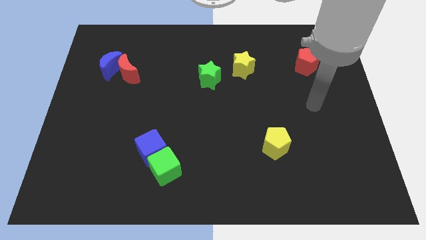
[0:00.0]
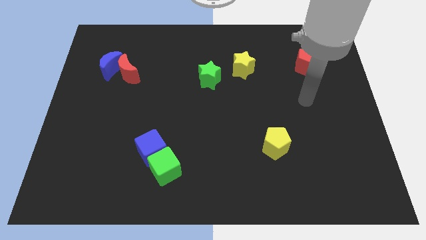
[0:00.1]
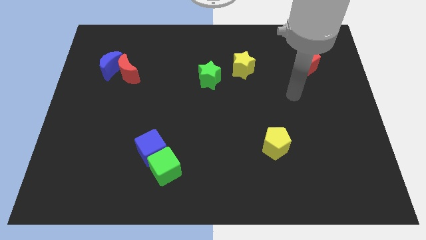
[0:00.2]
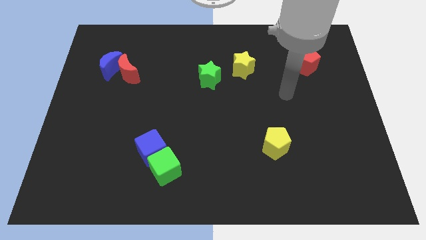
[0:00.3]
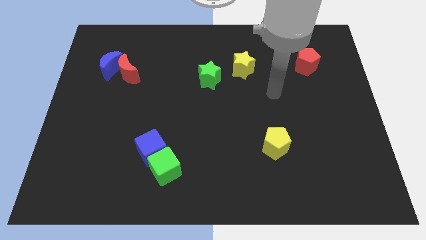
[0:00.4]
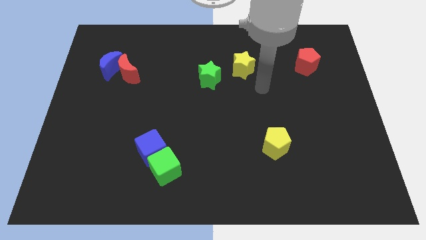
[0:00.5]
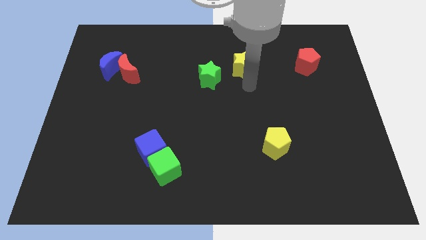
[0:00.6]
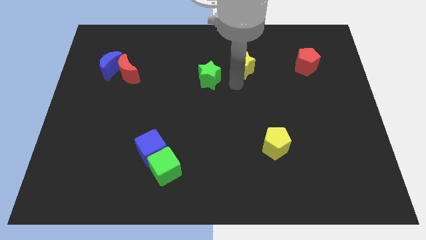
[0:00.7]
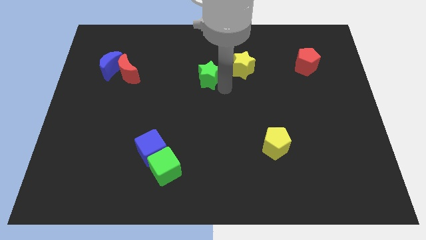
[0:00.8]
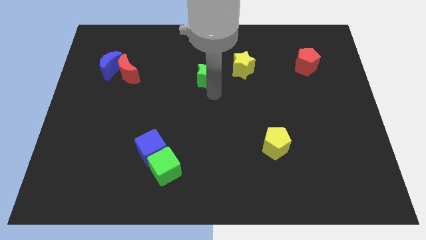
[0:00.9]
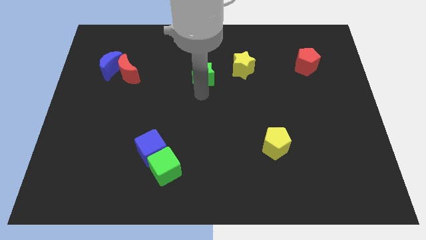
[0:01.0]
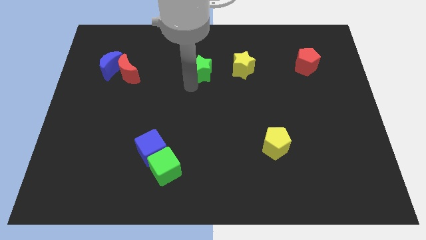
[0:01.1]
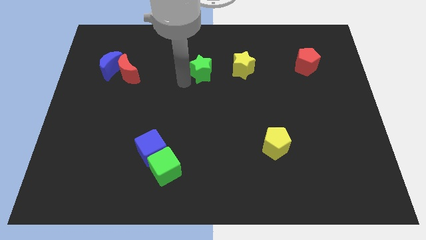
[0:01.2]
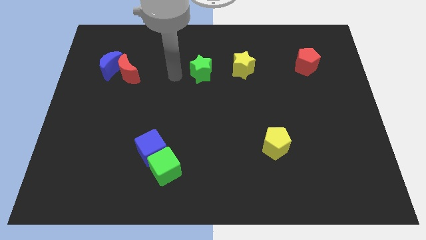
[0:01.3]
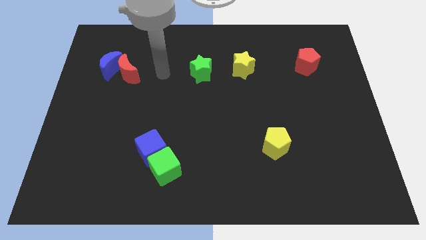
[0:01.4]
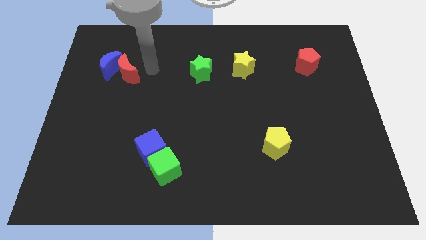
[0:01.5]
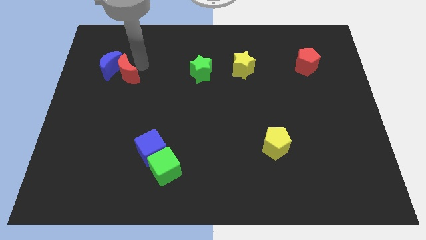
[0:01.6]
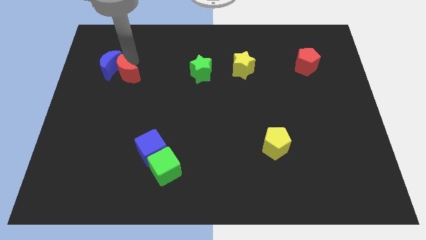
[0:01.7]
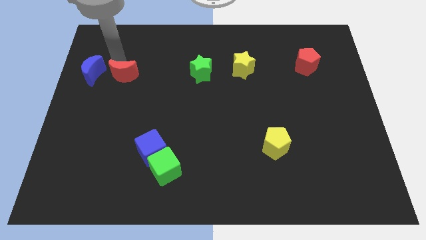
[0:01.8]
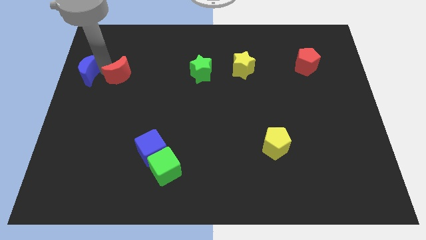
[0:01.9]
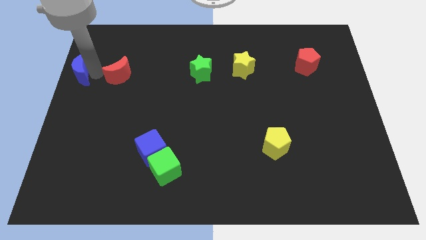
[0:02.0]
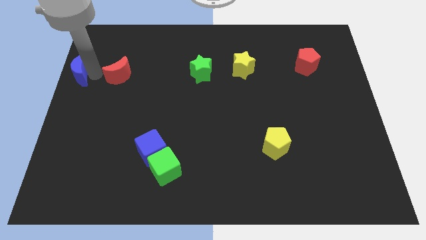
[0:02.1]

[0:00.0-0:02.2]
separate the red moon from the blue moon

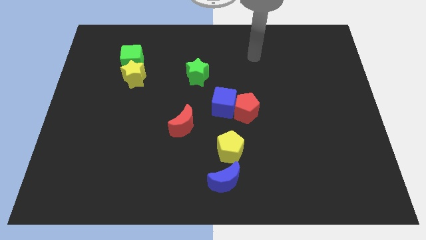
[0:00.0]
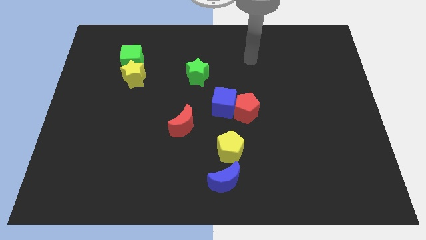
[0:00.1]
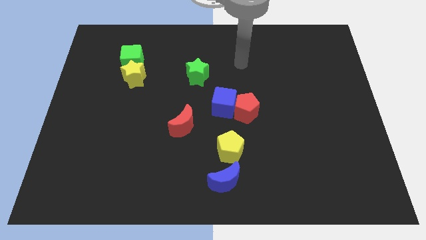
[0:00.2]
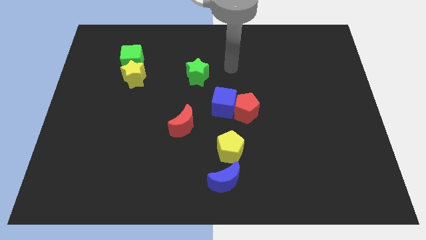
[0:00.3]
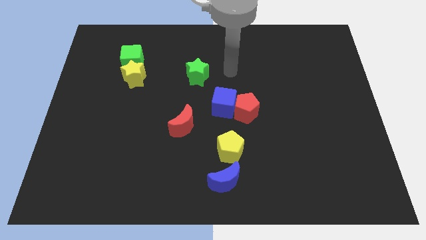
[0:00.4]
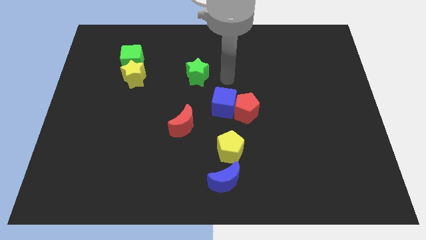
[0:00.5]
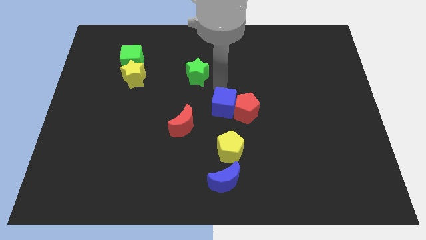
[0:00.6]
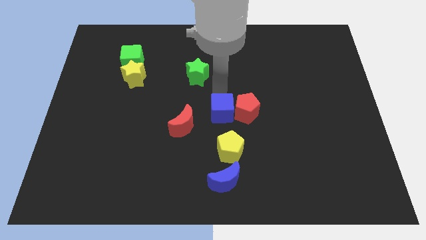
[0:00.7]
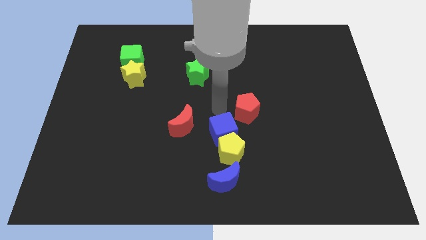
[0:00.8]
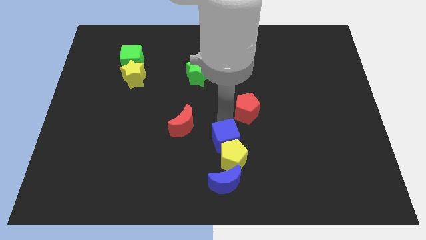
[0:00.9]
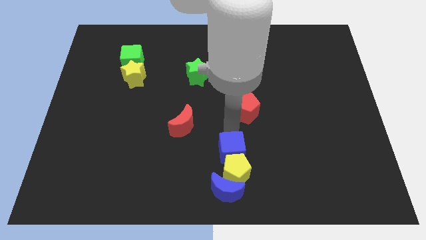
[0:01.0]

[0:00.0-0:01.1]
separate the red pentagon from the blue cube

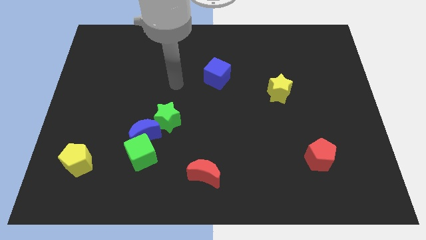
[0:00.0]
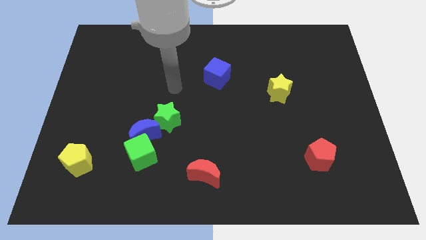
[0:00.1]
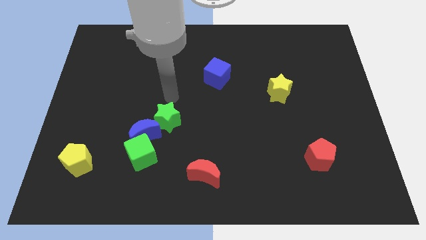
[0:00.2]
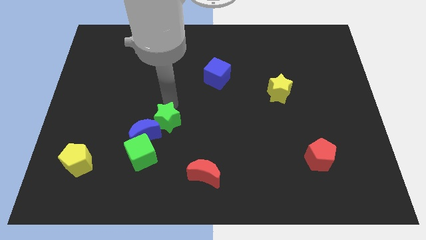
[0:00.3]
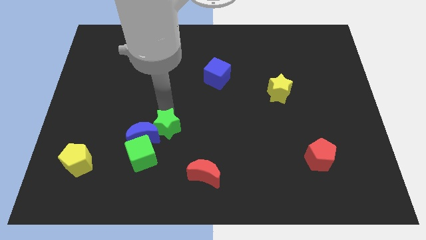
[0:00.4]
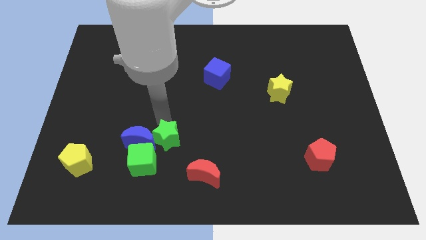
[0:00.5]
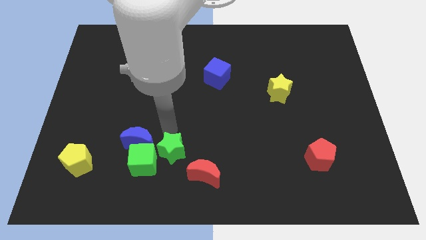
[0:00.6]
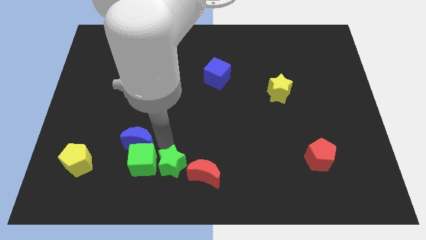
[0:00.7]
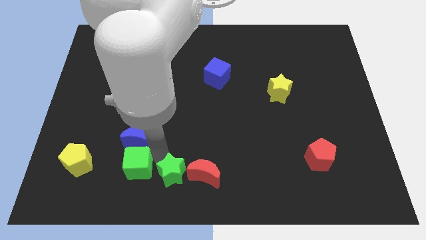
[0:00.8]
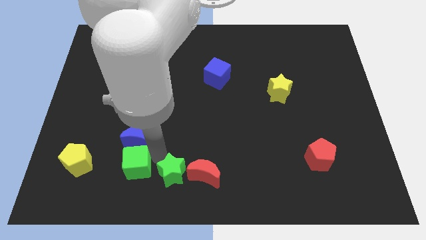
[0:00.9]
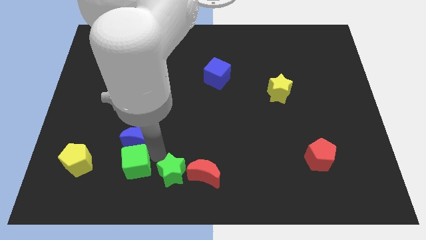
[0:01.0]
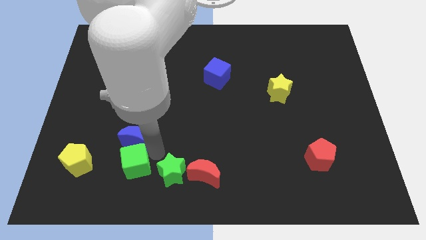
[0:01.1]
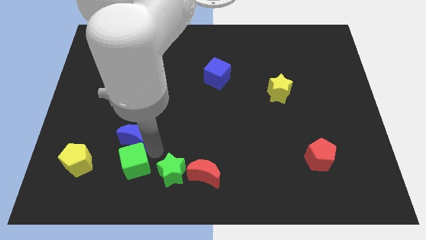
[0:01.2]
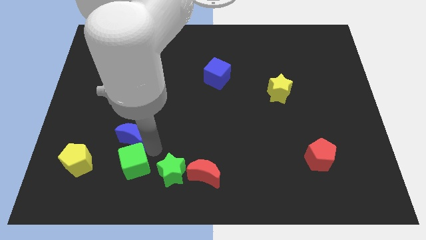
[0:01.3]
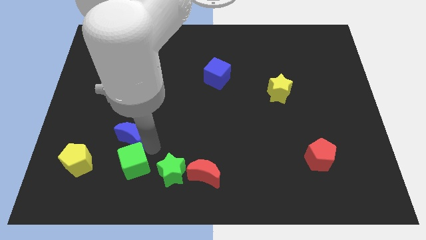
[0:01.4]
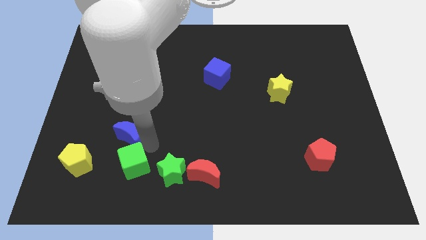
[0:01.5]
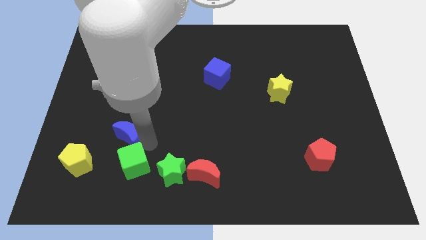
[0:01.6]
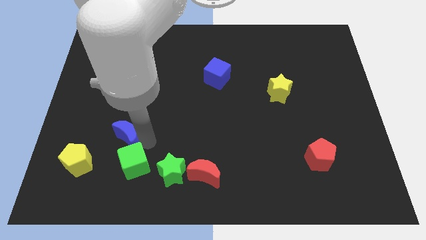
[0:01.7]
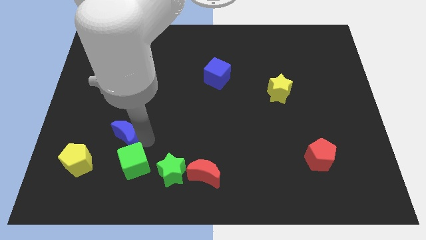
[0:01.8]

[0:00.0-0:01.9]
move the blue moon away from the green cube and green star

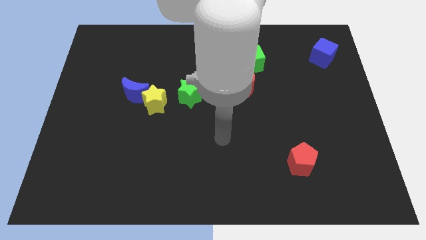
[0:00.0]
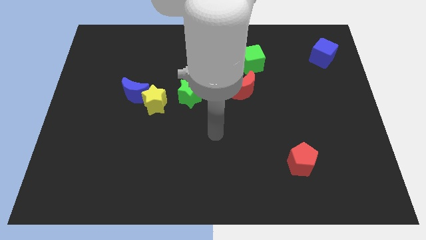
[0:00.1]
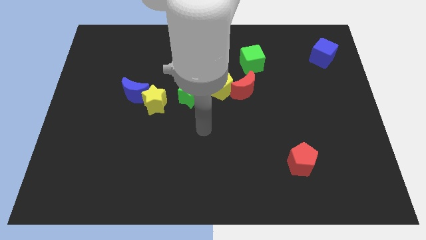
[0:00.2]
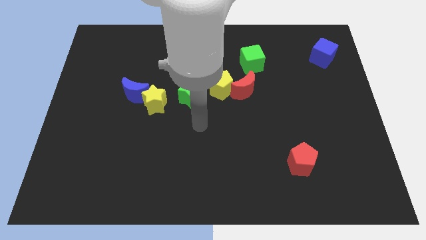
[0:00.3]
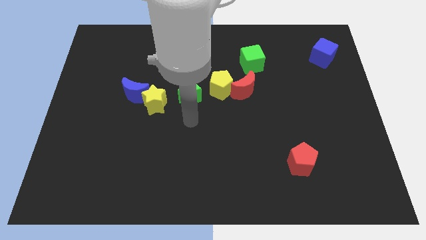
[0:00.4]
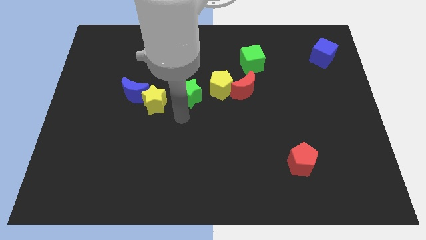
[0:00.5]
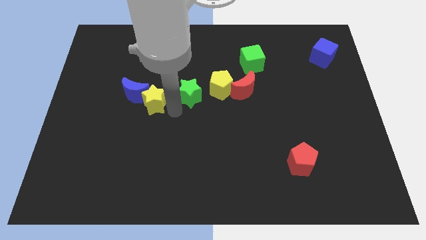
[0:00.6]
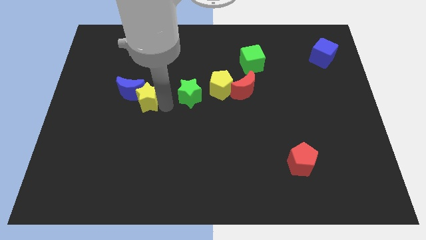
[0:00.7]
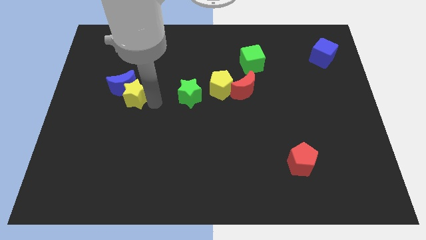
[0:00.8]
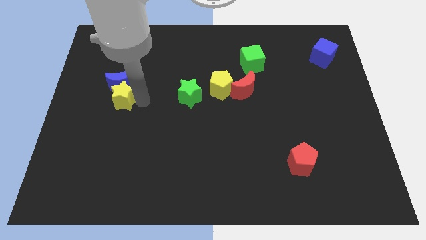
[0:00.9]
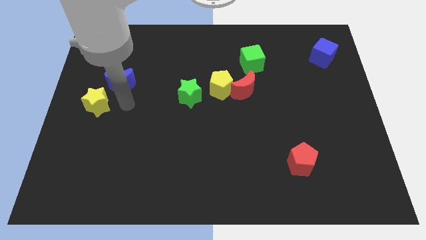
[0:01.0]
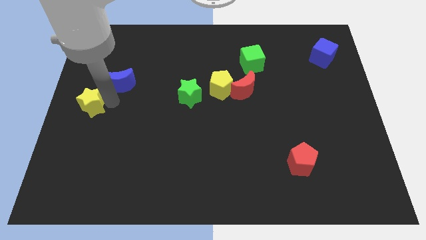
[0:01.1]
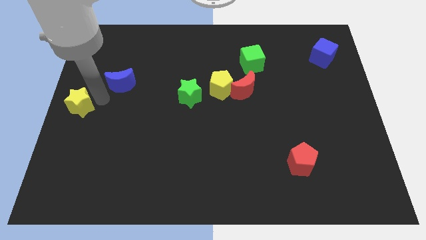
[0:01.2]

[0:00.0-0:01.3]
separate the blue moon from the yellow star

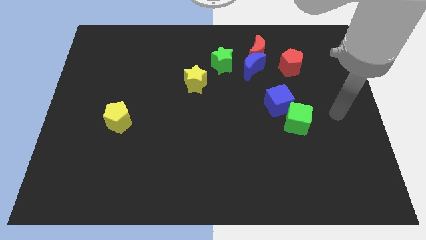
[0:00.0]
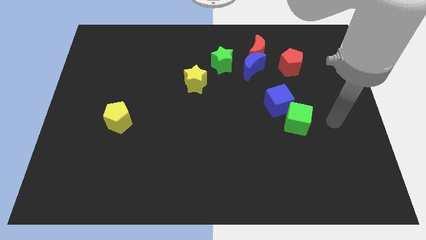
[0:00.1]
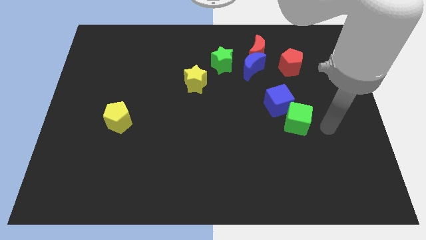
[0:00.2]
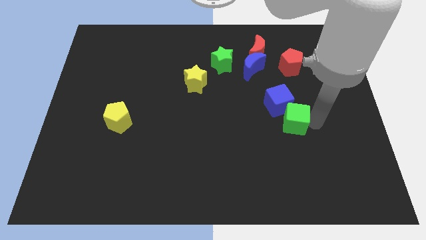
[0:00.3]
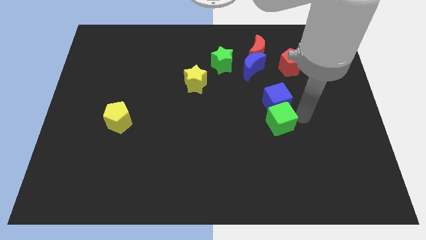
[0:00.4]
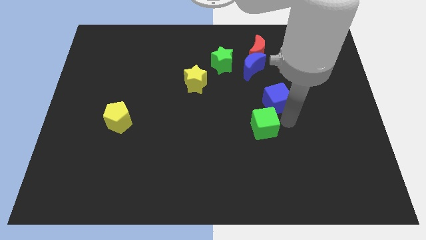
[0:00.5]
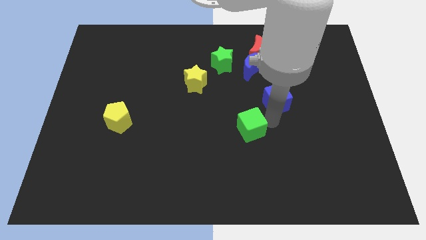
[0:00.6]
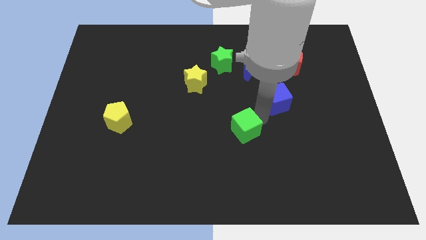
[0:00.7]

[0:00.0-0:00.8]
separate the blue cube from the green cube

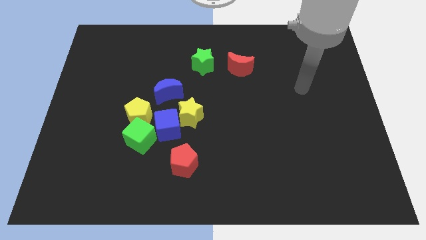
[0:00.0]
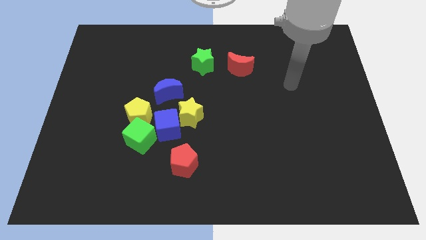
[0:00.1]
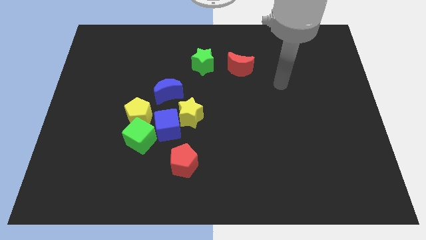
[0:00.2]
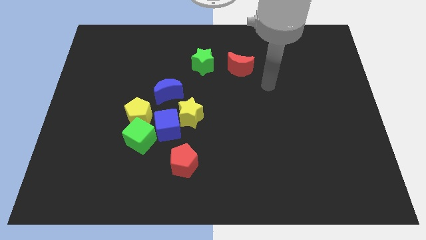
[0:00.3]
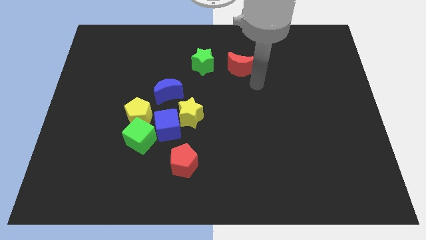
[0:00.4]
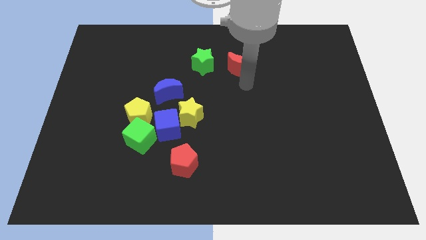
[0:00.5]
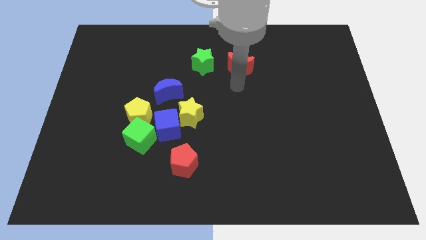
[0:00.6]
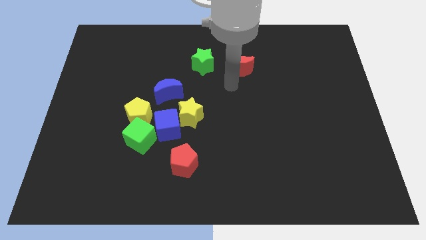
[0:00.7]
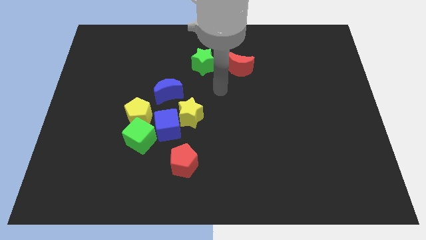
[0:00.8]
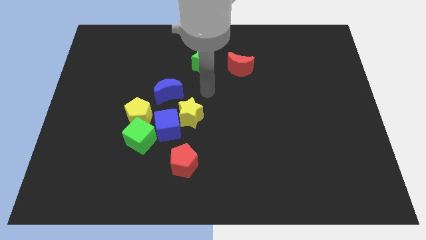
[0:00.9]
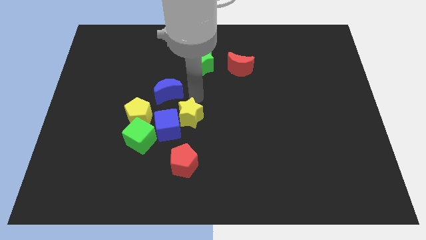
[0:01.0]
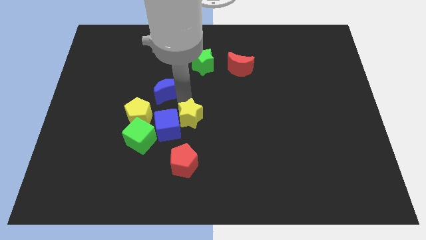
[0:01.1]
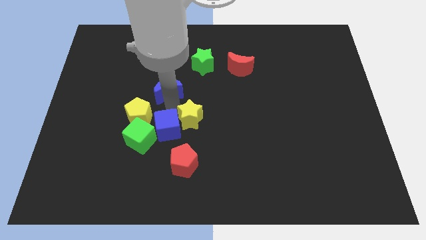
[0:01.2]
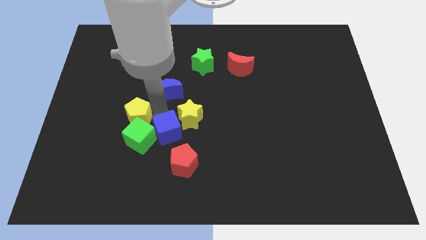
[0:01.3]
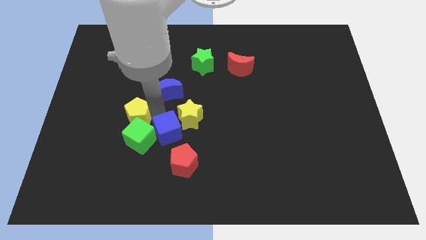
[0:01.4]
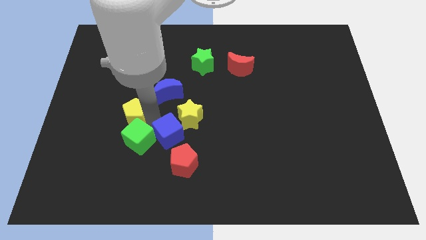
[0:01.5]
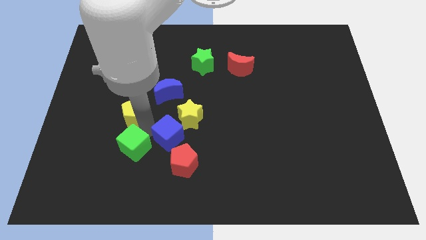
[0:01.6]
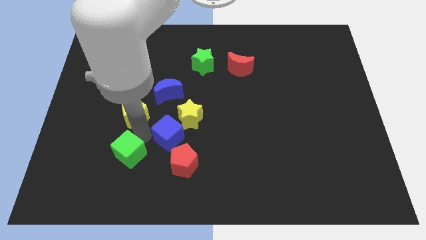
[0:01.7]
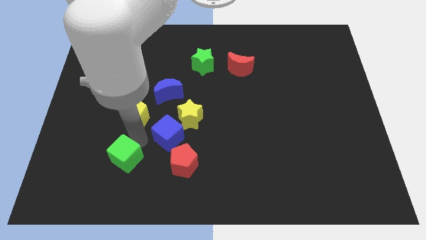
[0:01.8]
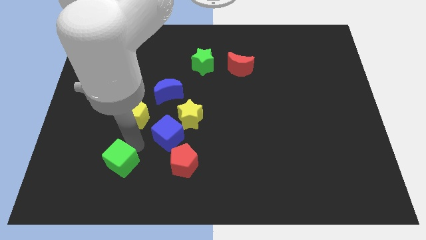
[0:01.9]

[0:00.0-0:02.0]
separate the green cube from the yellow pentagon and blue cube
